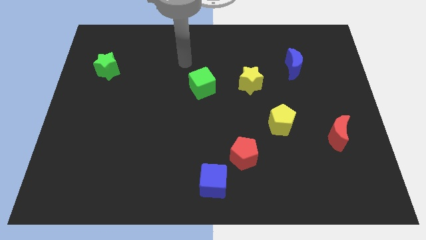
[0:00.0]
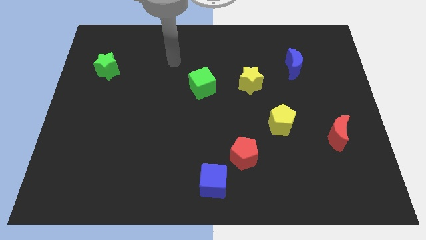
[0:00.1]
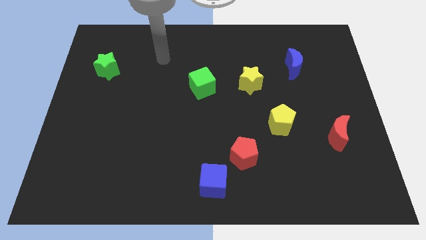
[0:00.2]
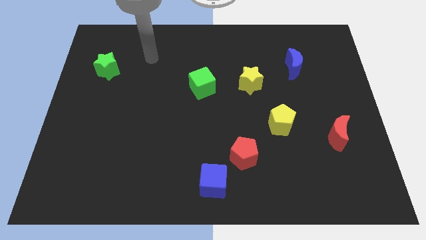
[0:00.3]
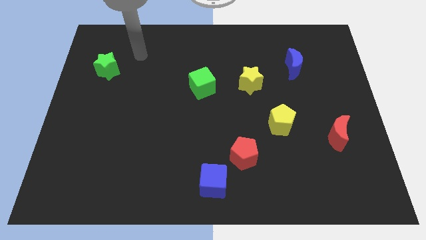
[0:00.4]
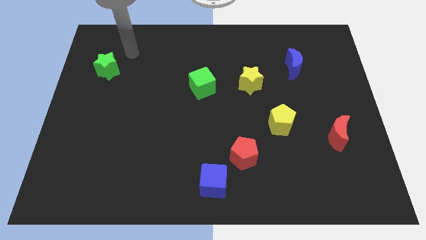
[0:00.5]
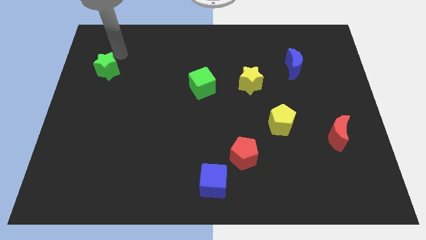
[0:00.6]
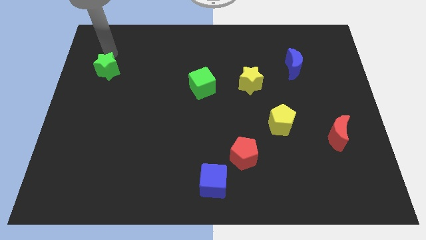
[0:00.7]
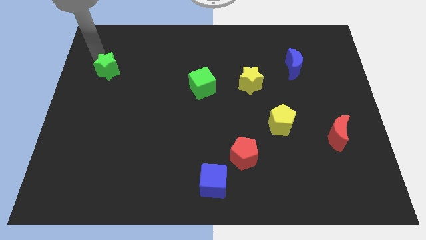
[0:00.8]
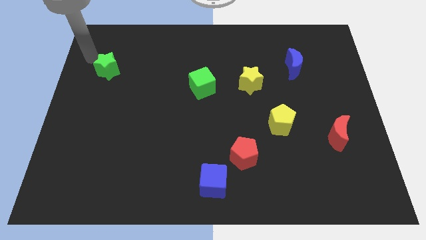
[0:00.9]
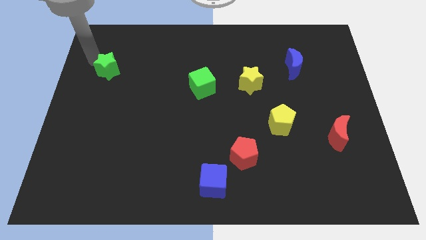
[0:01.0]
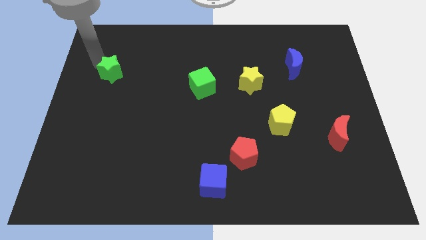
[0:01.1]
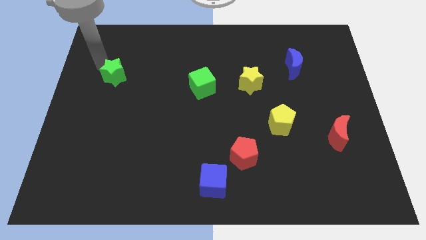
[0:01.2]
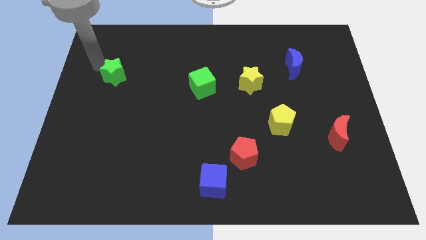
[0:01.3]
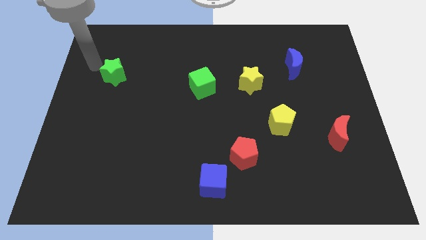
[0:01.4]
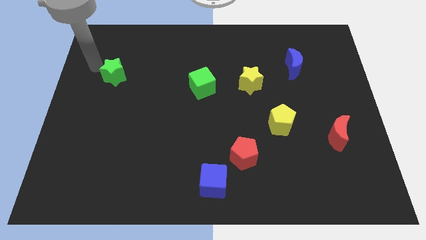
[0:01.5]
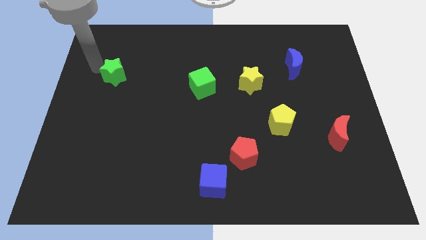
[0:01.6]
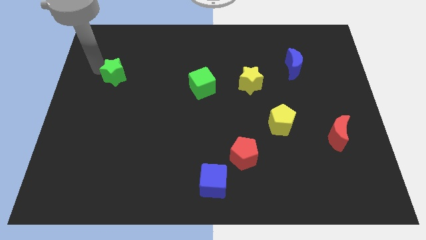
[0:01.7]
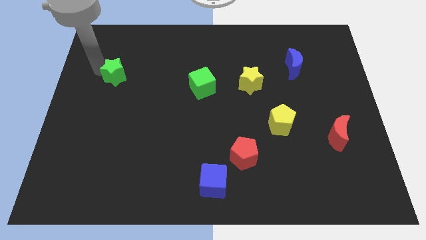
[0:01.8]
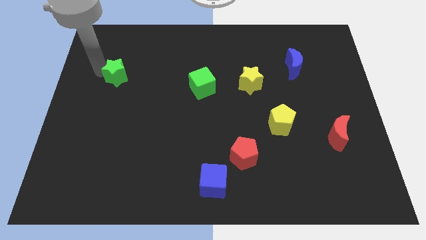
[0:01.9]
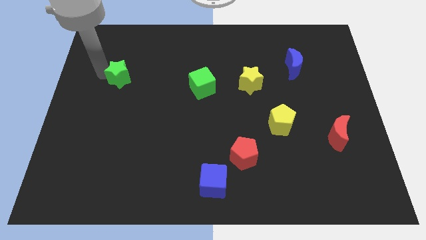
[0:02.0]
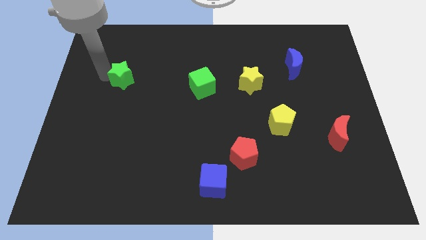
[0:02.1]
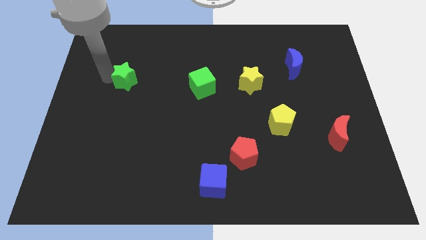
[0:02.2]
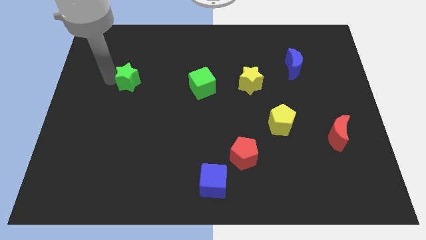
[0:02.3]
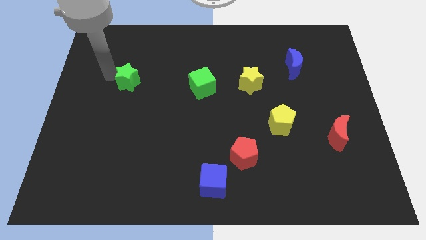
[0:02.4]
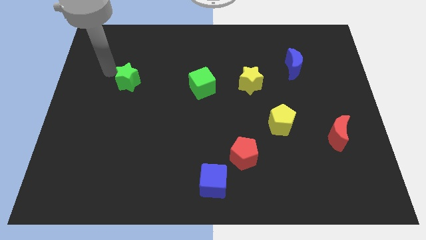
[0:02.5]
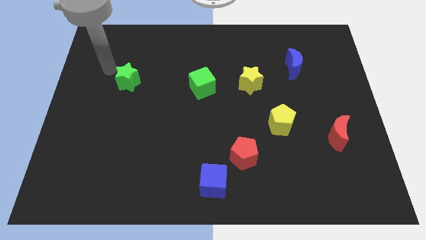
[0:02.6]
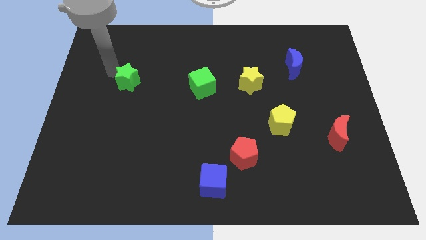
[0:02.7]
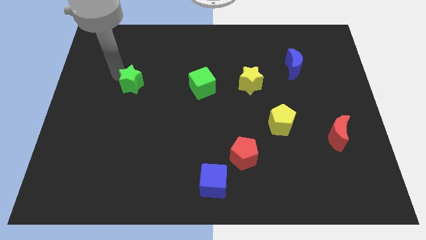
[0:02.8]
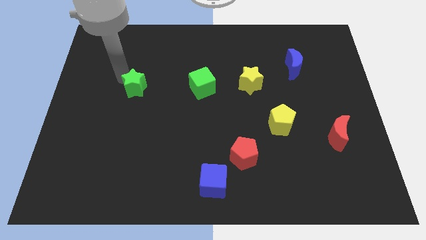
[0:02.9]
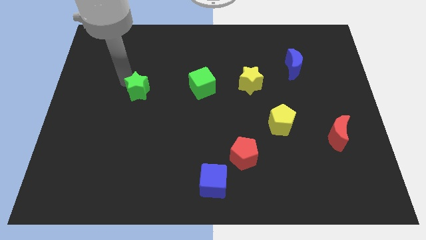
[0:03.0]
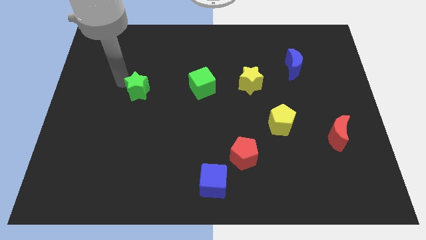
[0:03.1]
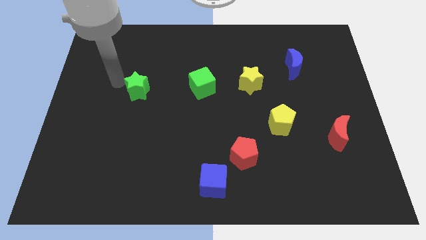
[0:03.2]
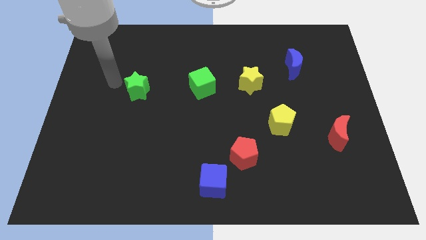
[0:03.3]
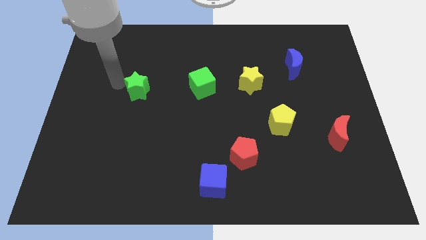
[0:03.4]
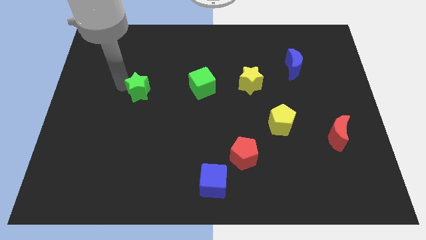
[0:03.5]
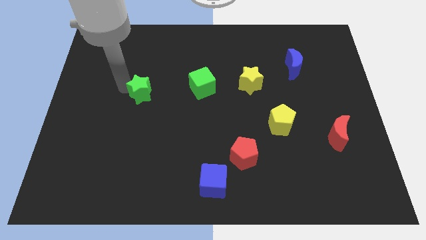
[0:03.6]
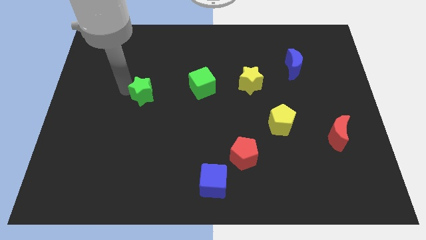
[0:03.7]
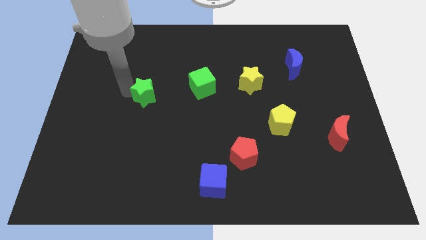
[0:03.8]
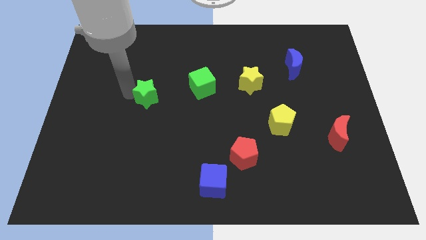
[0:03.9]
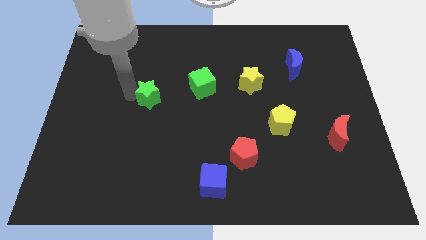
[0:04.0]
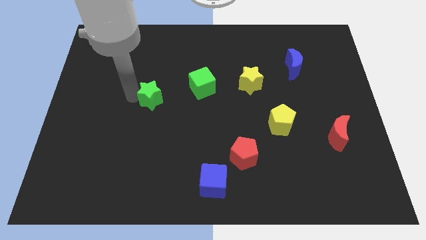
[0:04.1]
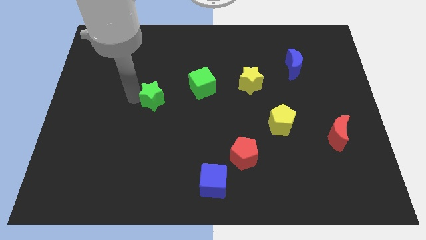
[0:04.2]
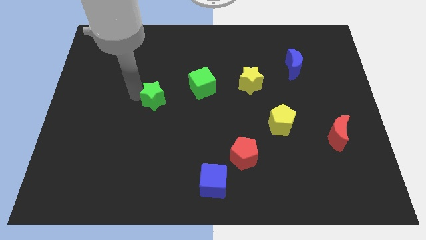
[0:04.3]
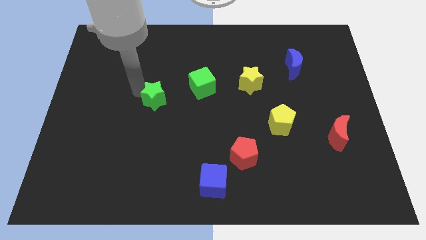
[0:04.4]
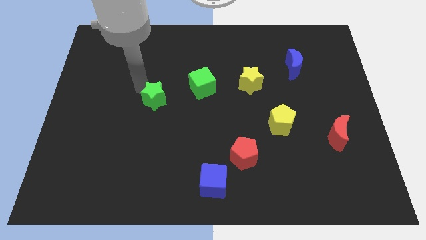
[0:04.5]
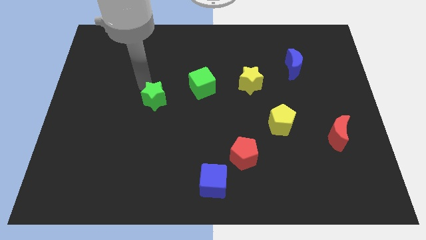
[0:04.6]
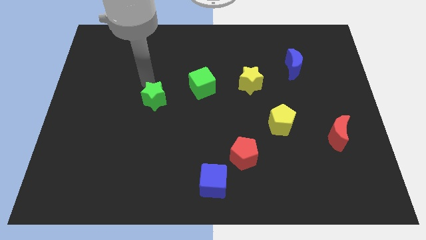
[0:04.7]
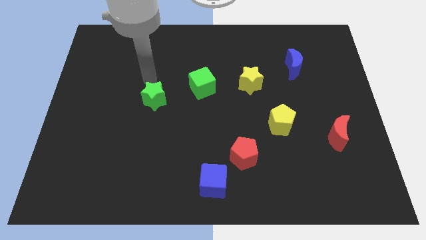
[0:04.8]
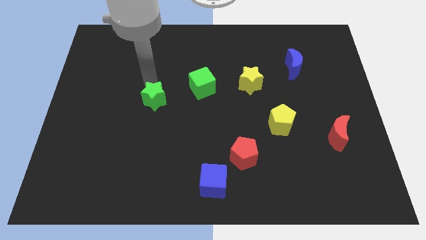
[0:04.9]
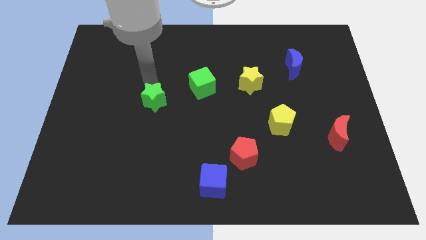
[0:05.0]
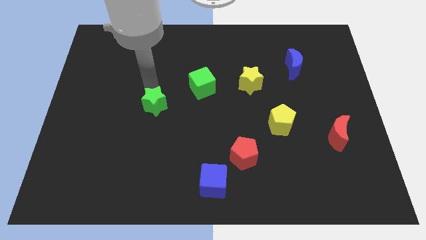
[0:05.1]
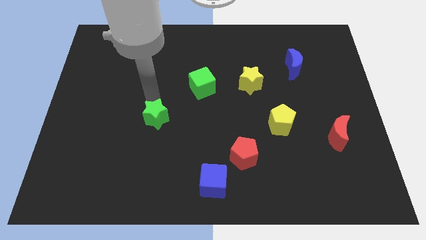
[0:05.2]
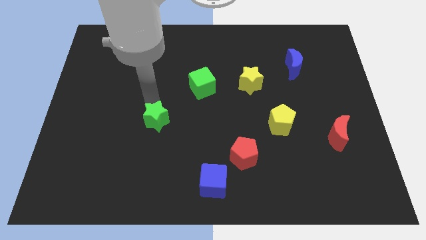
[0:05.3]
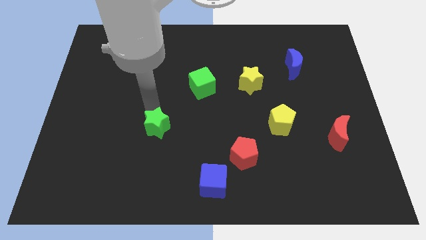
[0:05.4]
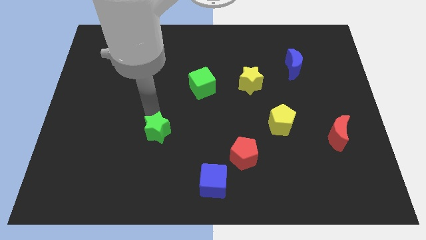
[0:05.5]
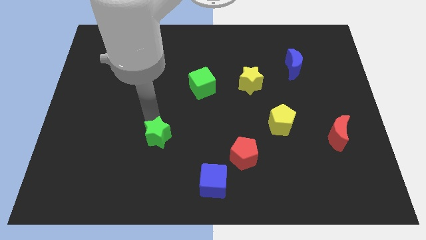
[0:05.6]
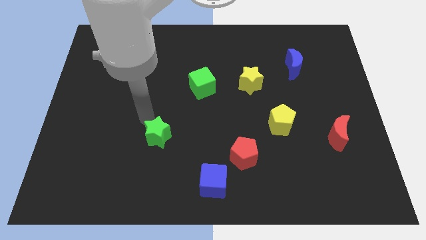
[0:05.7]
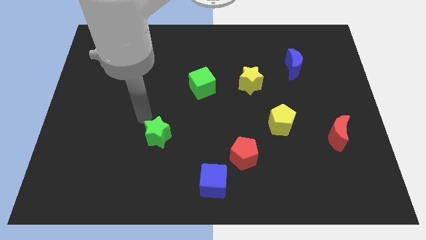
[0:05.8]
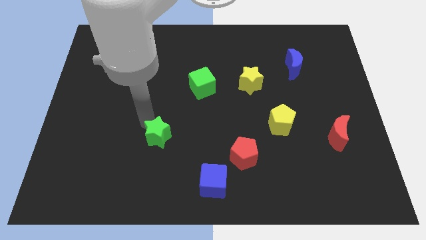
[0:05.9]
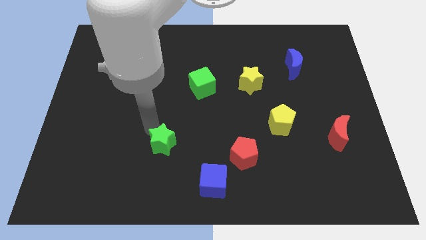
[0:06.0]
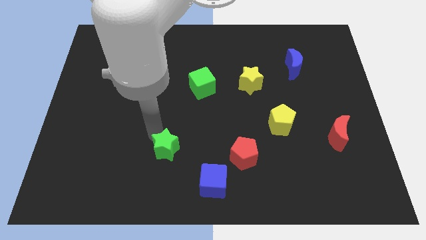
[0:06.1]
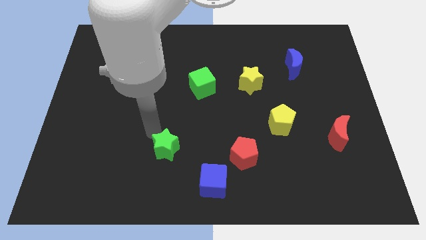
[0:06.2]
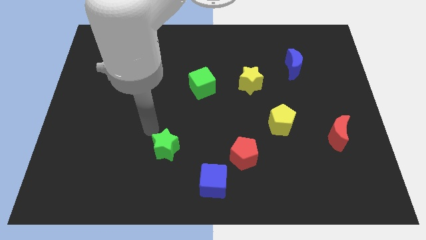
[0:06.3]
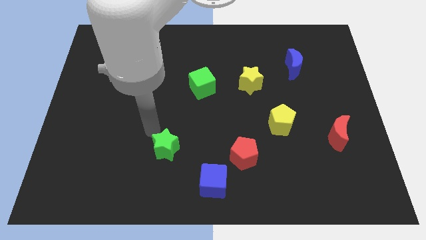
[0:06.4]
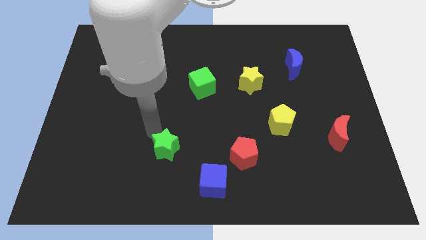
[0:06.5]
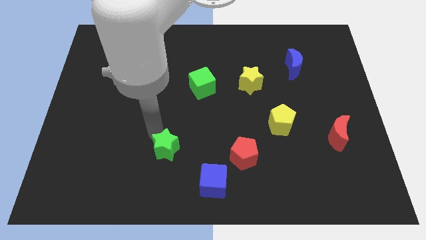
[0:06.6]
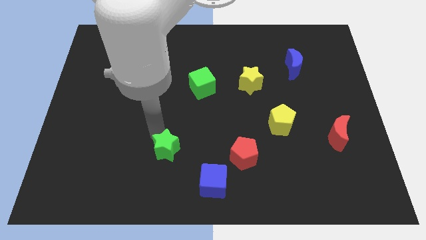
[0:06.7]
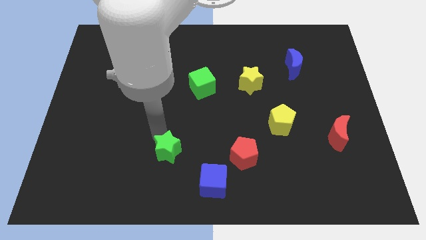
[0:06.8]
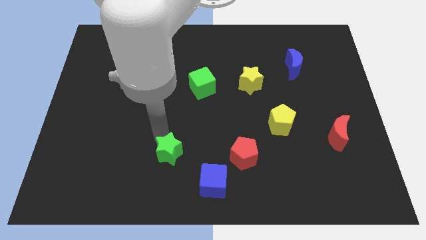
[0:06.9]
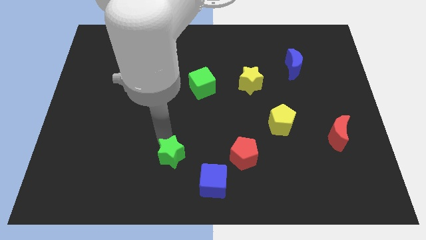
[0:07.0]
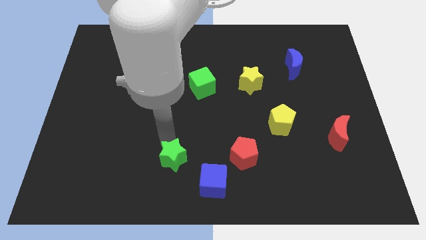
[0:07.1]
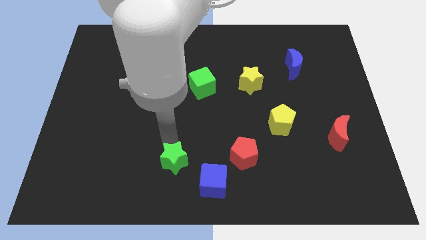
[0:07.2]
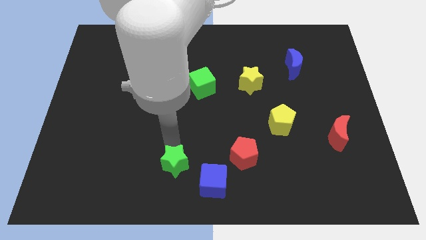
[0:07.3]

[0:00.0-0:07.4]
move the green star to the bottom side

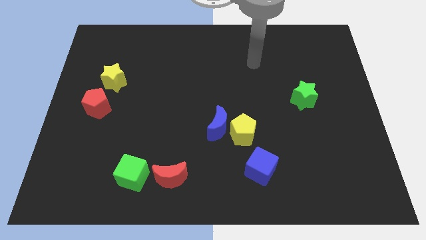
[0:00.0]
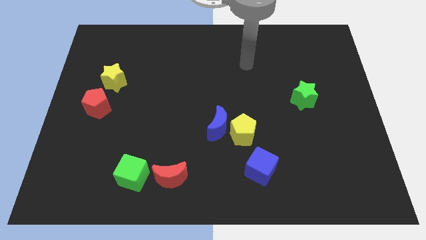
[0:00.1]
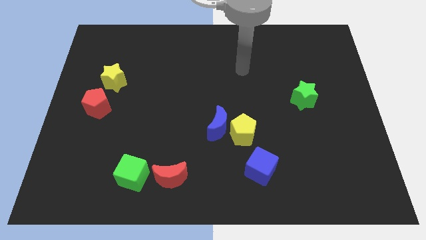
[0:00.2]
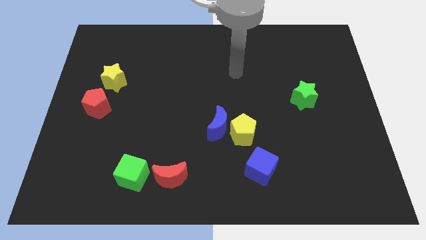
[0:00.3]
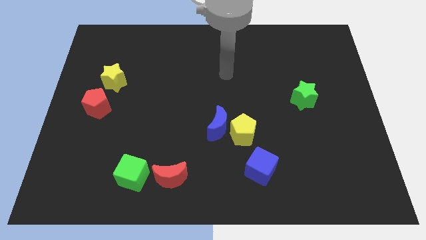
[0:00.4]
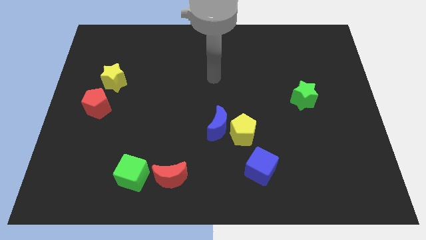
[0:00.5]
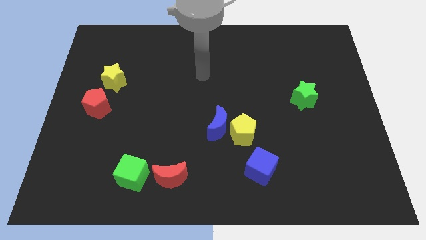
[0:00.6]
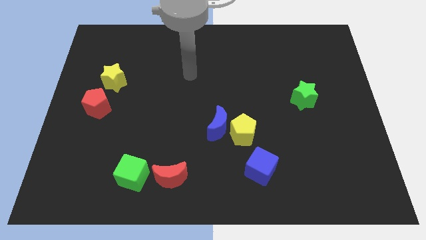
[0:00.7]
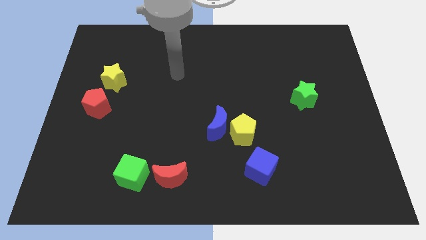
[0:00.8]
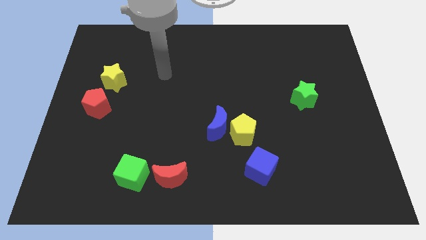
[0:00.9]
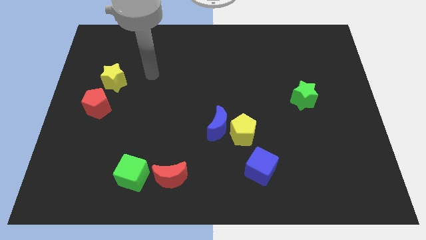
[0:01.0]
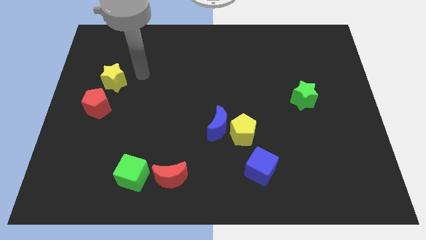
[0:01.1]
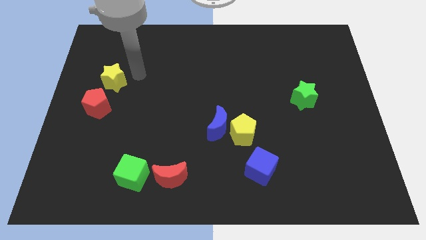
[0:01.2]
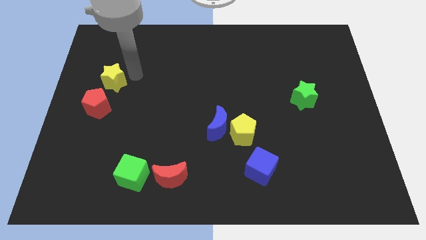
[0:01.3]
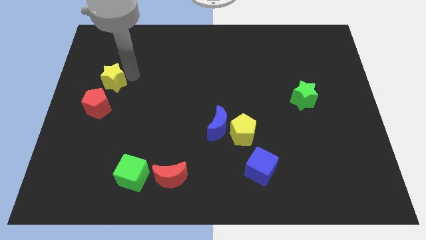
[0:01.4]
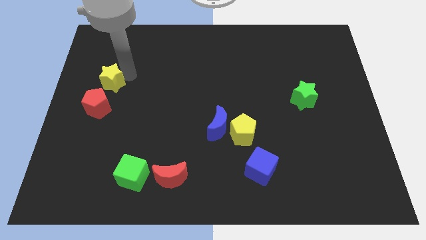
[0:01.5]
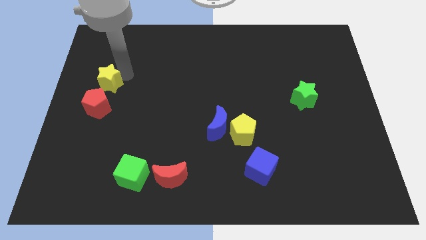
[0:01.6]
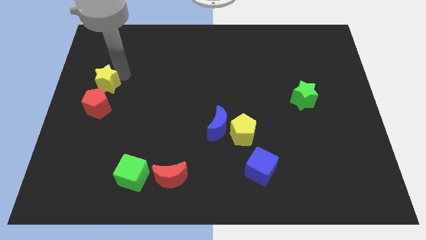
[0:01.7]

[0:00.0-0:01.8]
put the yellow star to the left side
